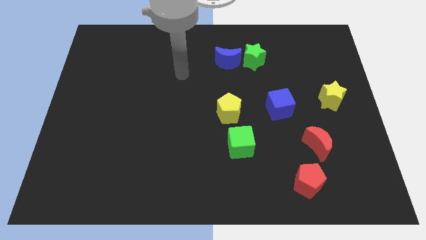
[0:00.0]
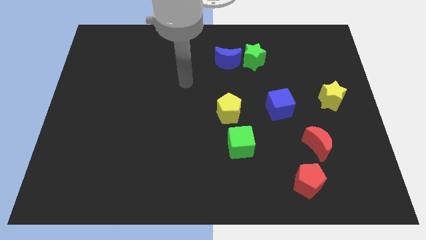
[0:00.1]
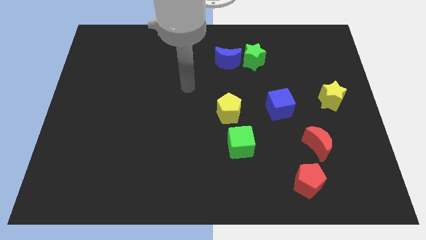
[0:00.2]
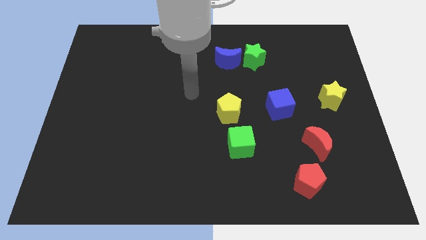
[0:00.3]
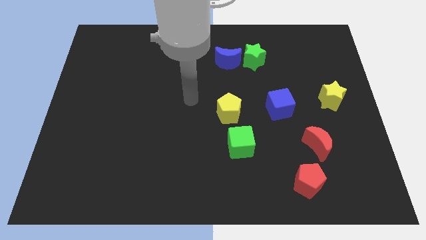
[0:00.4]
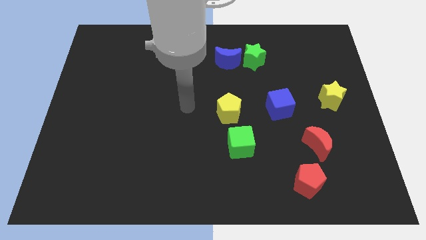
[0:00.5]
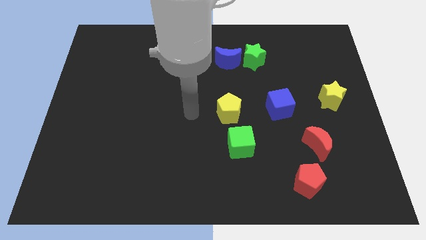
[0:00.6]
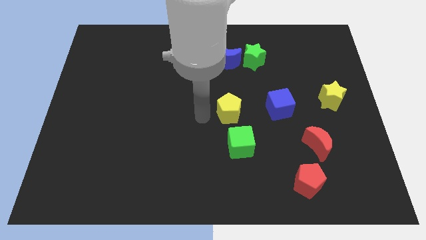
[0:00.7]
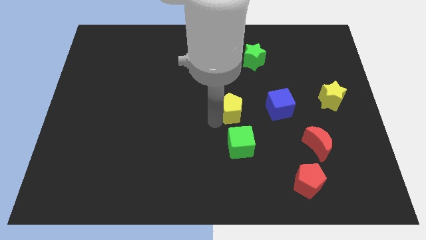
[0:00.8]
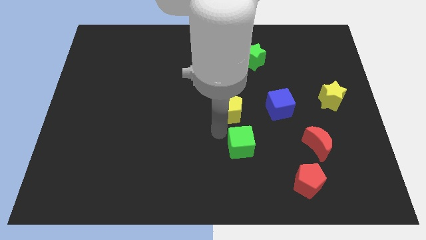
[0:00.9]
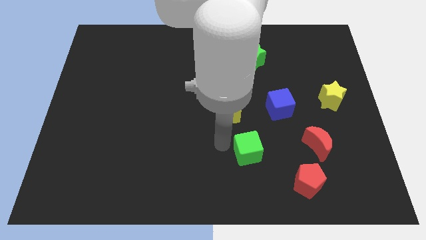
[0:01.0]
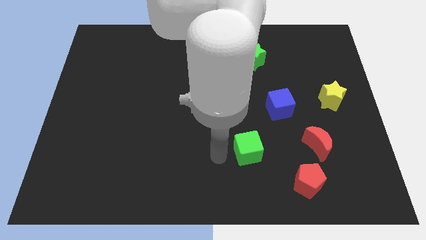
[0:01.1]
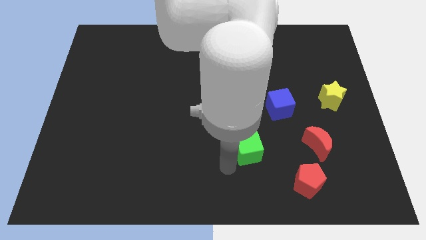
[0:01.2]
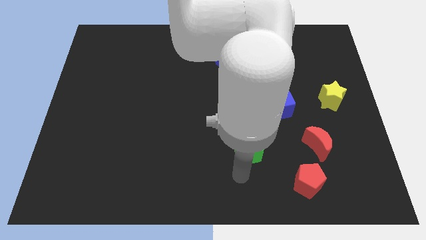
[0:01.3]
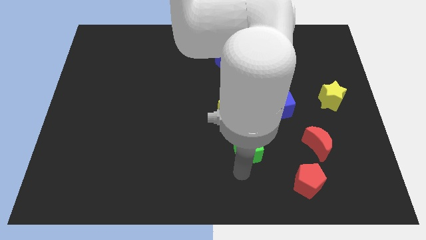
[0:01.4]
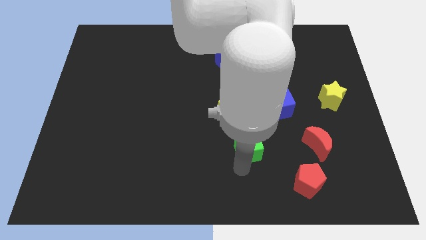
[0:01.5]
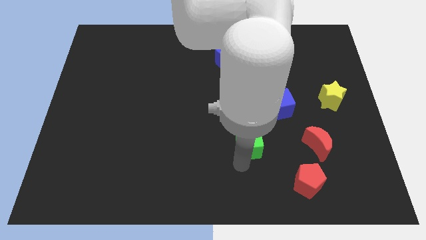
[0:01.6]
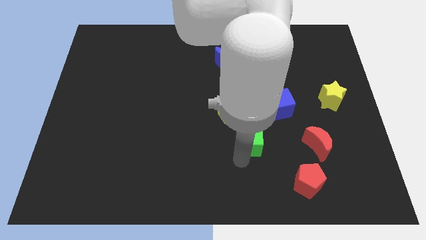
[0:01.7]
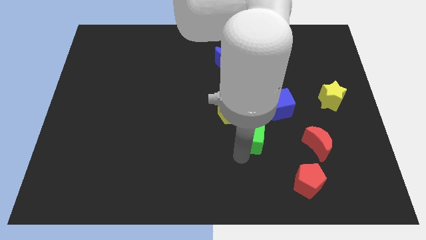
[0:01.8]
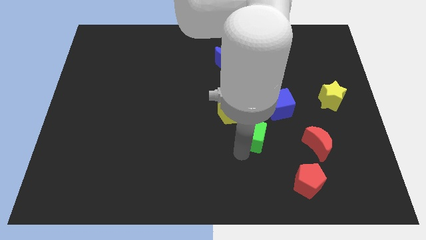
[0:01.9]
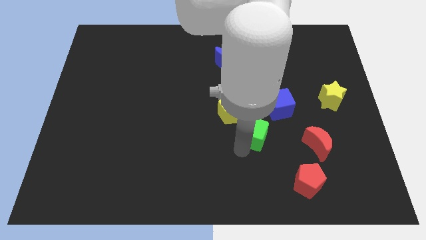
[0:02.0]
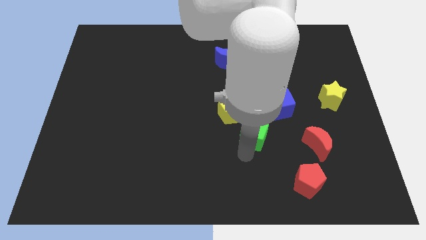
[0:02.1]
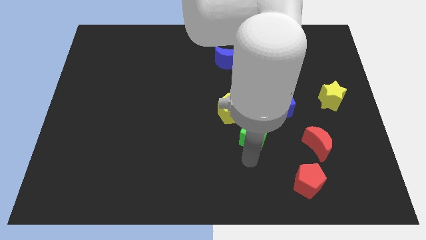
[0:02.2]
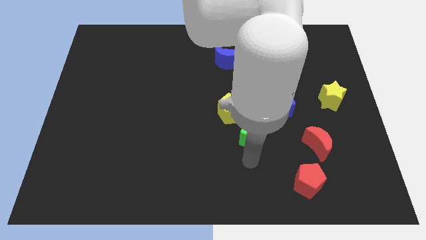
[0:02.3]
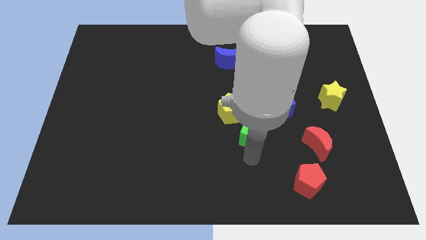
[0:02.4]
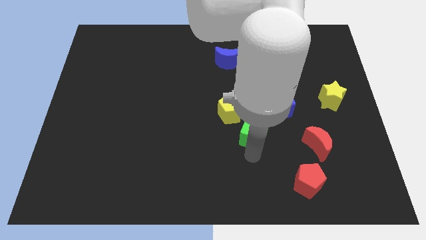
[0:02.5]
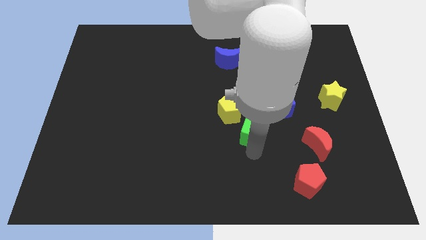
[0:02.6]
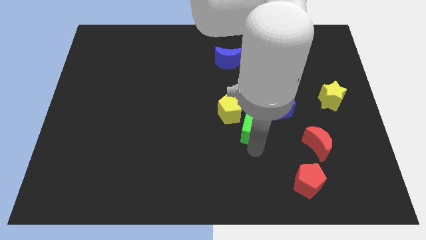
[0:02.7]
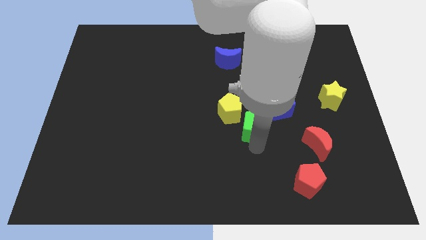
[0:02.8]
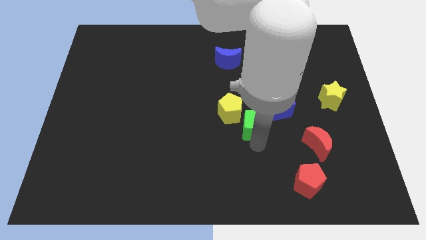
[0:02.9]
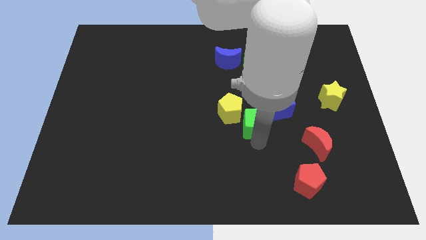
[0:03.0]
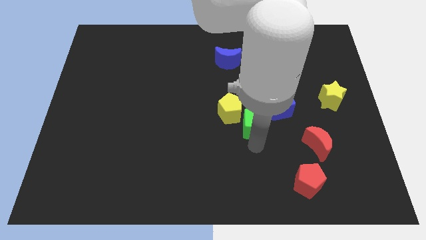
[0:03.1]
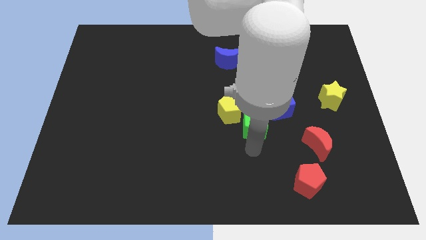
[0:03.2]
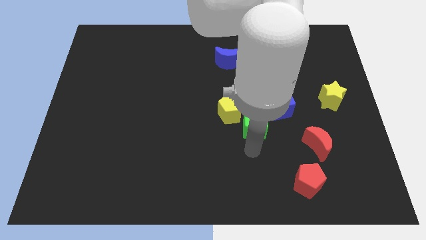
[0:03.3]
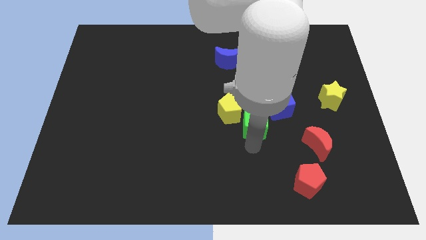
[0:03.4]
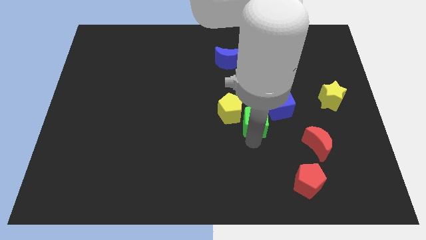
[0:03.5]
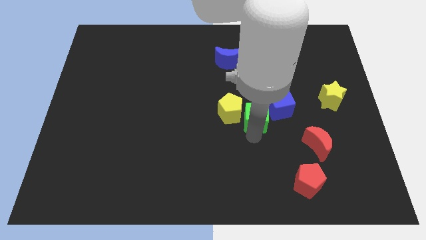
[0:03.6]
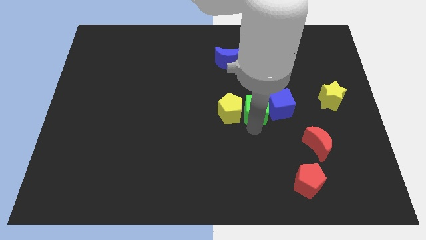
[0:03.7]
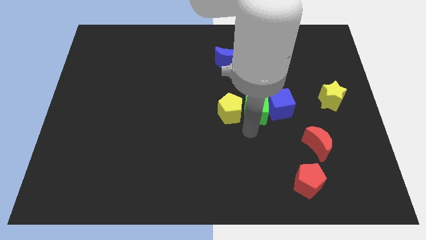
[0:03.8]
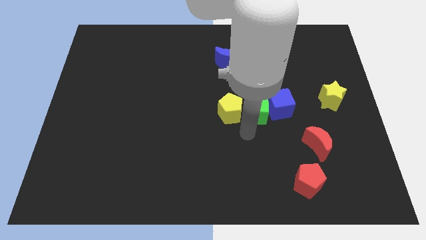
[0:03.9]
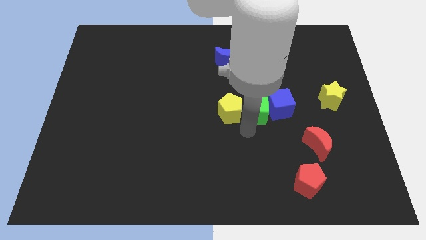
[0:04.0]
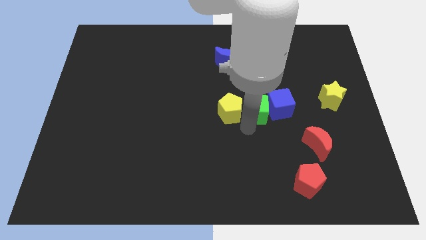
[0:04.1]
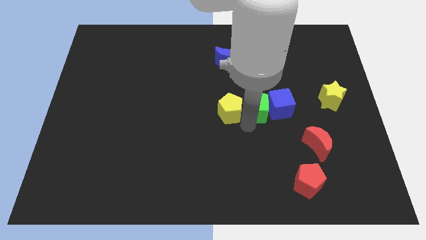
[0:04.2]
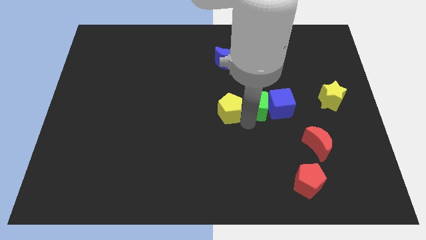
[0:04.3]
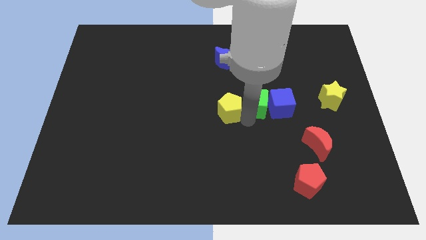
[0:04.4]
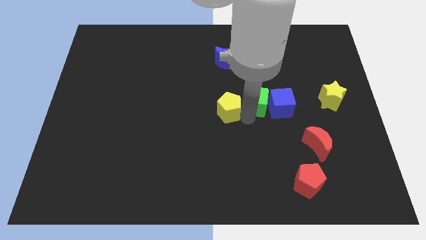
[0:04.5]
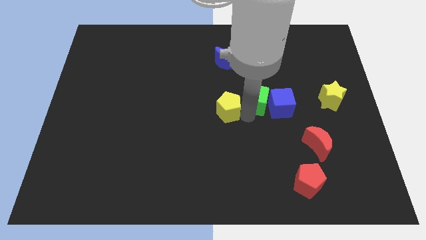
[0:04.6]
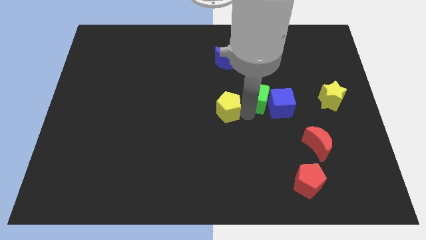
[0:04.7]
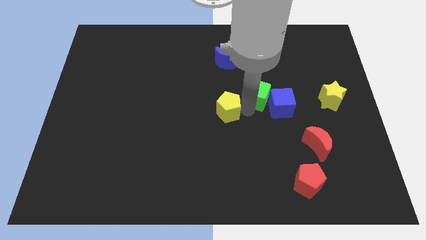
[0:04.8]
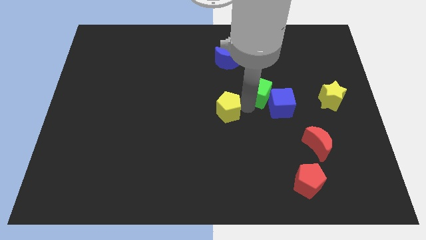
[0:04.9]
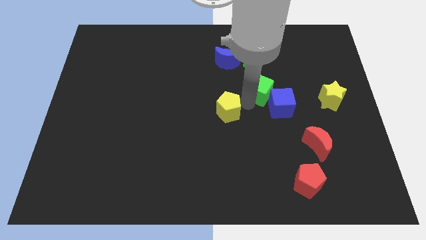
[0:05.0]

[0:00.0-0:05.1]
slide the green cube to the top side of the blue cube

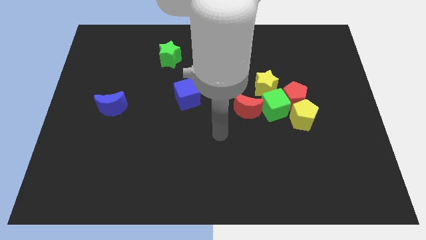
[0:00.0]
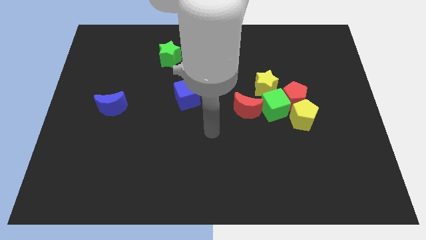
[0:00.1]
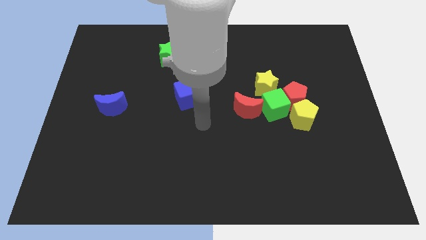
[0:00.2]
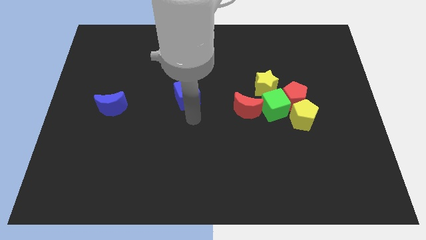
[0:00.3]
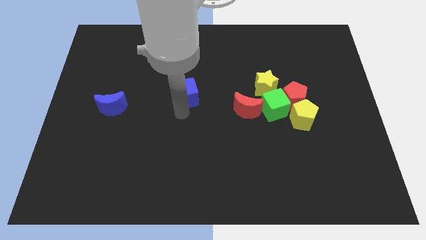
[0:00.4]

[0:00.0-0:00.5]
move the green star to the top of the blue cube
